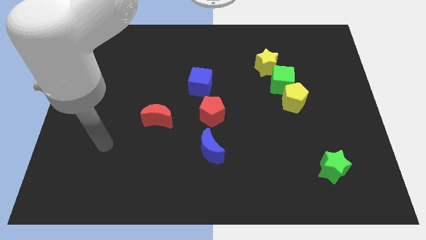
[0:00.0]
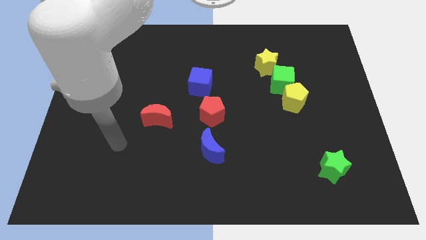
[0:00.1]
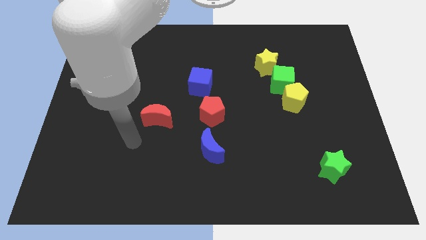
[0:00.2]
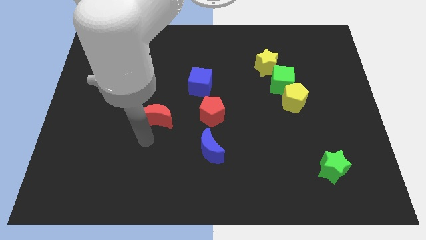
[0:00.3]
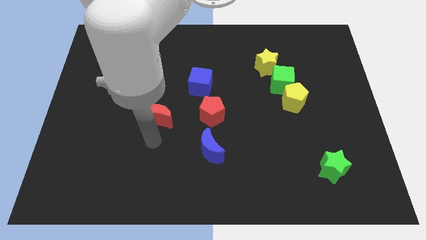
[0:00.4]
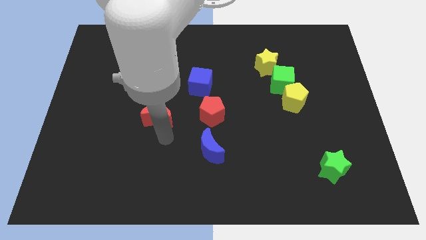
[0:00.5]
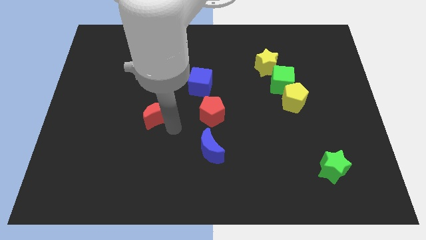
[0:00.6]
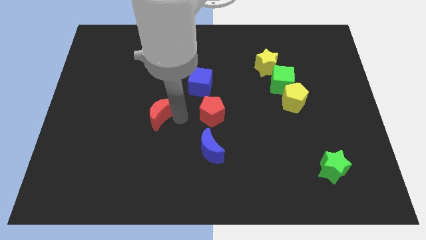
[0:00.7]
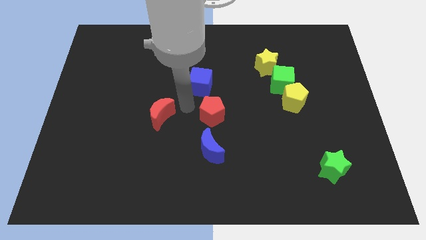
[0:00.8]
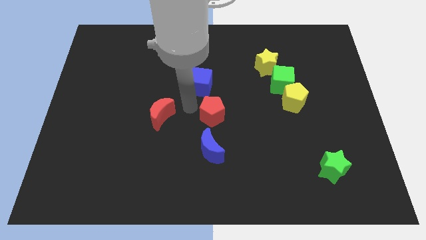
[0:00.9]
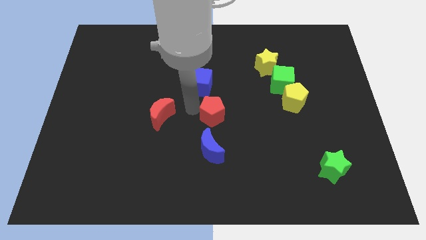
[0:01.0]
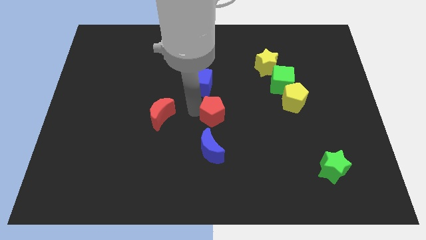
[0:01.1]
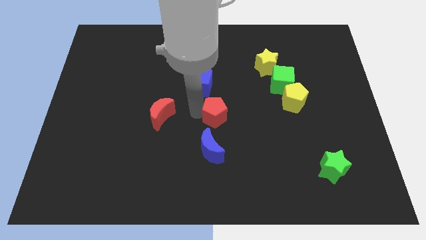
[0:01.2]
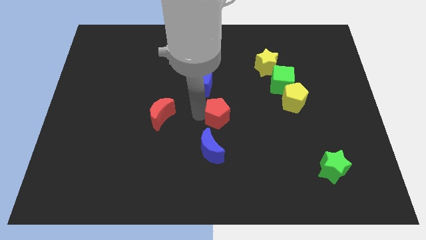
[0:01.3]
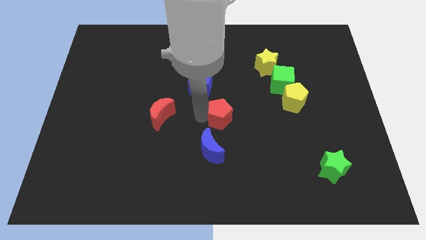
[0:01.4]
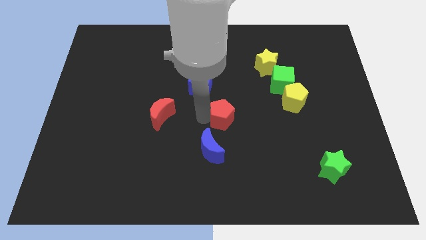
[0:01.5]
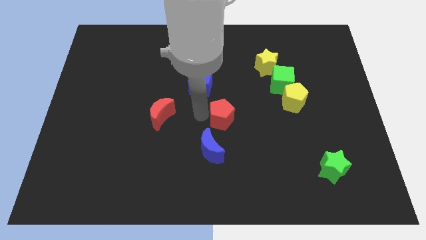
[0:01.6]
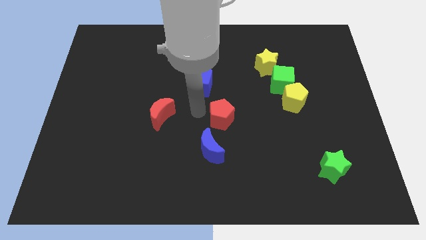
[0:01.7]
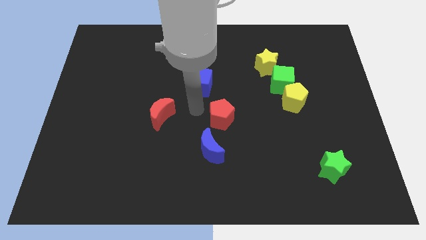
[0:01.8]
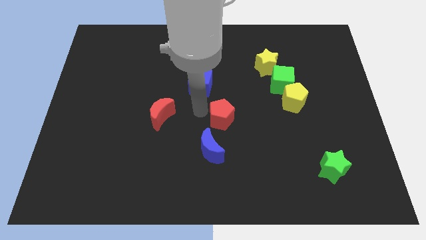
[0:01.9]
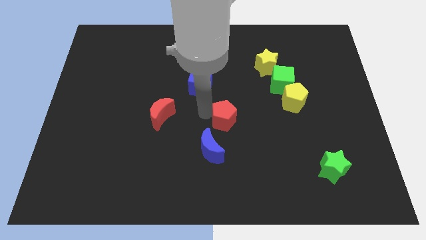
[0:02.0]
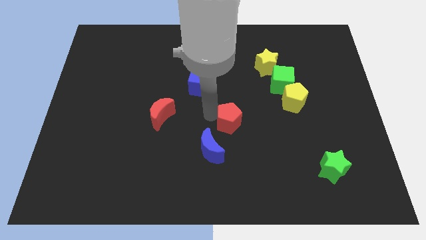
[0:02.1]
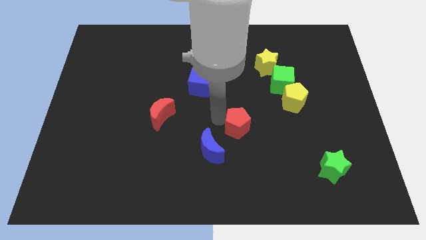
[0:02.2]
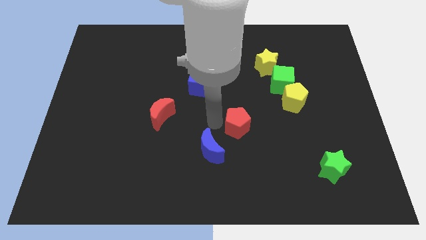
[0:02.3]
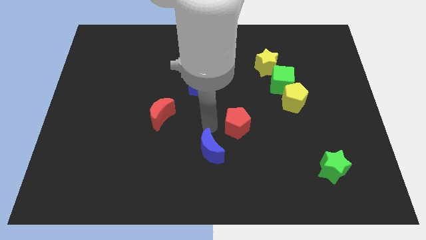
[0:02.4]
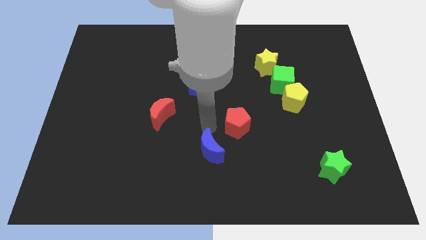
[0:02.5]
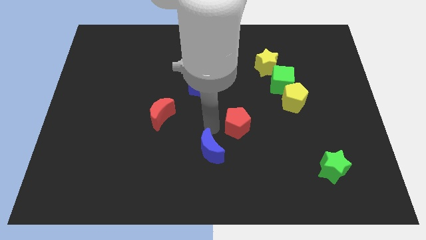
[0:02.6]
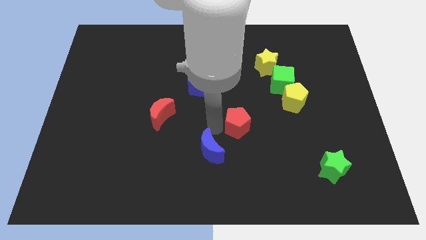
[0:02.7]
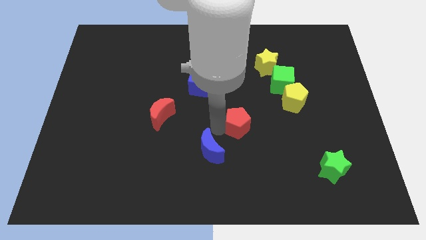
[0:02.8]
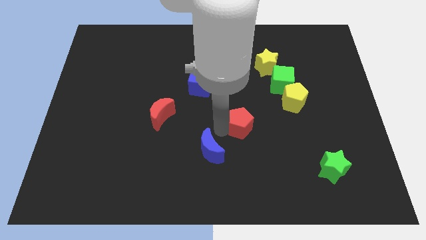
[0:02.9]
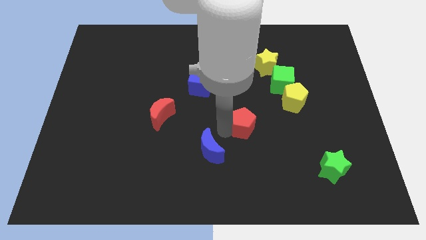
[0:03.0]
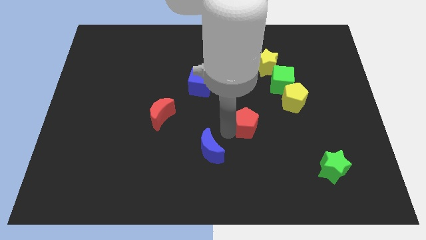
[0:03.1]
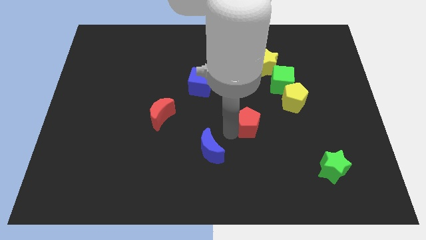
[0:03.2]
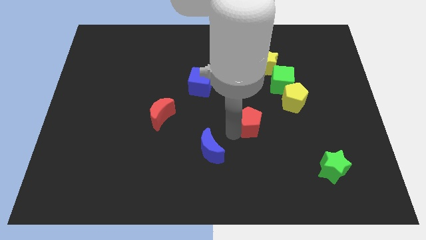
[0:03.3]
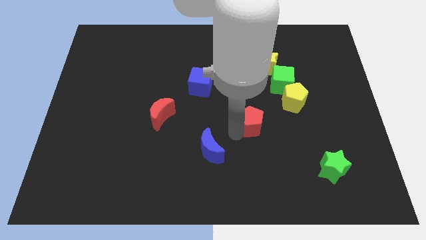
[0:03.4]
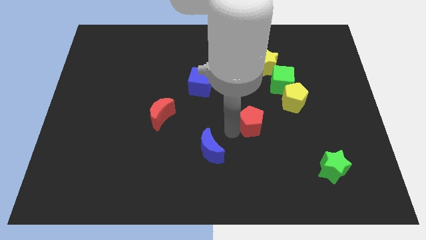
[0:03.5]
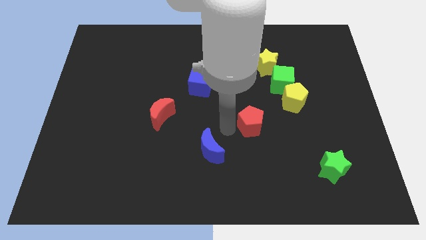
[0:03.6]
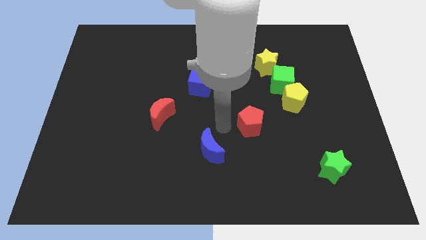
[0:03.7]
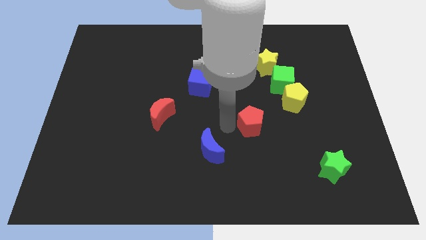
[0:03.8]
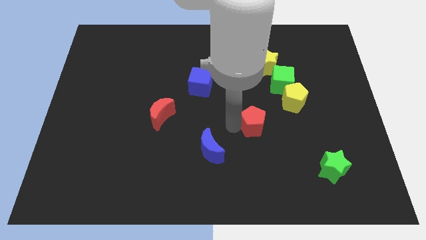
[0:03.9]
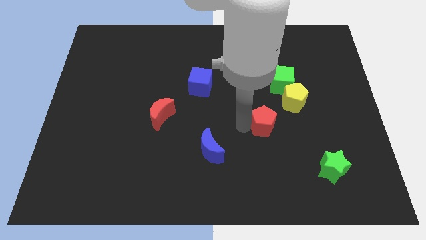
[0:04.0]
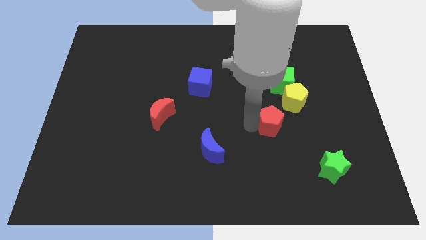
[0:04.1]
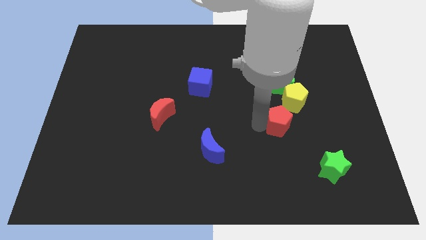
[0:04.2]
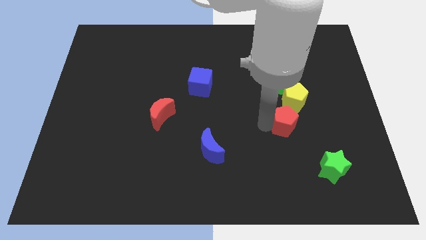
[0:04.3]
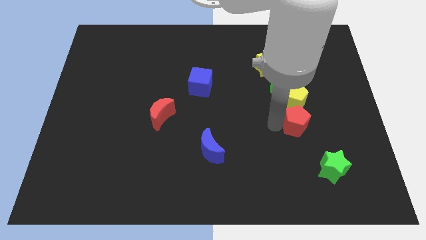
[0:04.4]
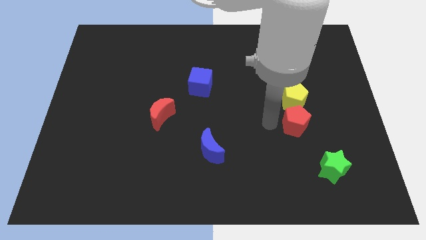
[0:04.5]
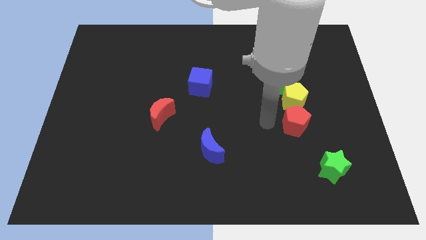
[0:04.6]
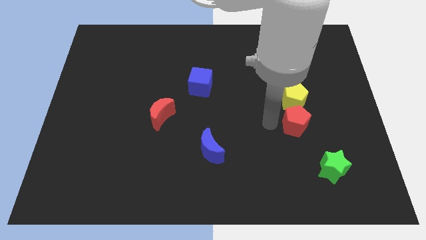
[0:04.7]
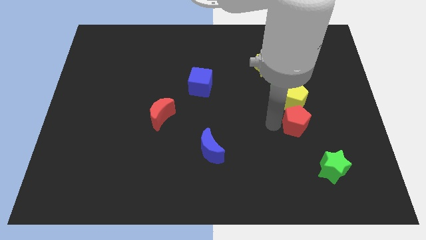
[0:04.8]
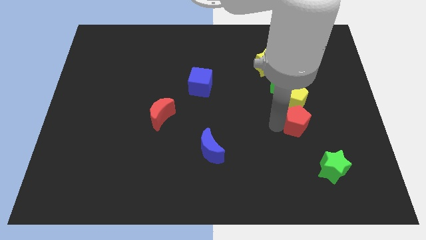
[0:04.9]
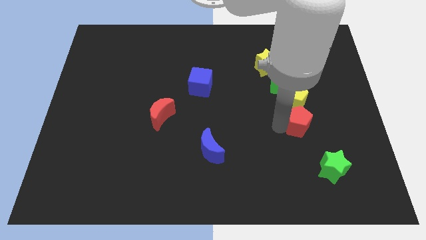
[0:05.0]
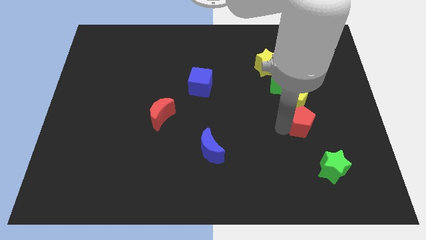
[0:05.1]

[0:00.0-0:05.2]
put the red pentagon above the green star

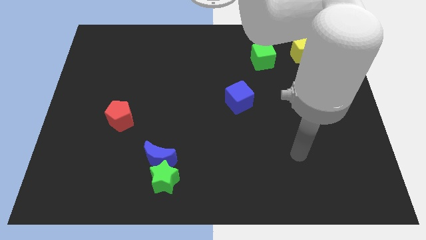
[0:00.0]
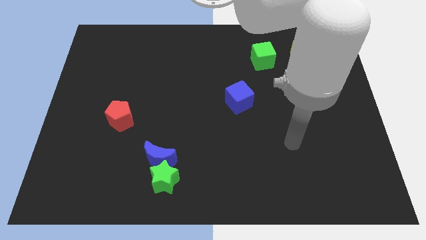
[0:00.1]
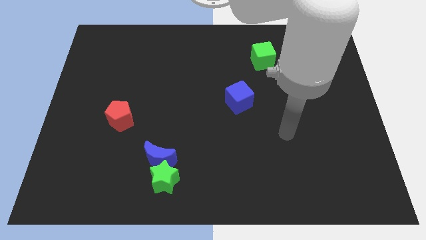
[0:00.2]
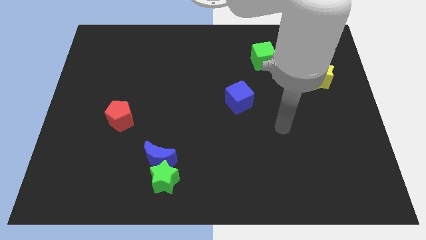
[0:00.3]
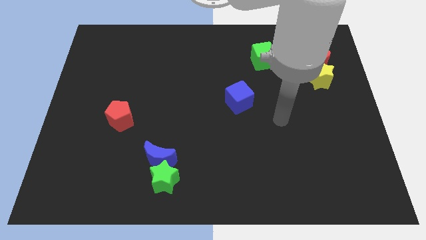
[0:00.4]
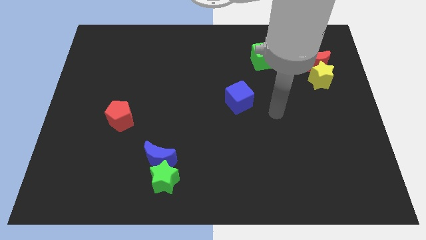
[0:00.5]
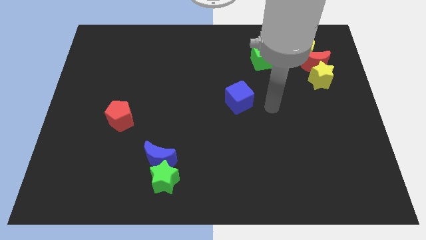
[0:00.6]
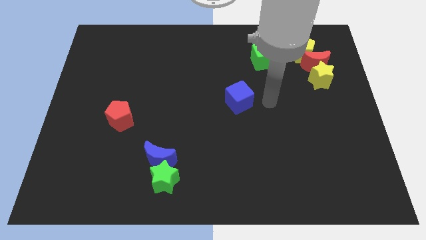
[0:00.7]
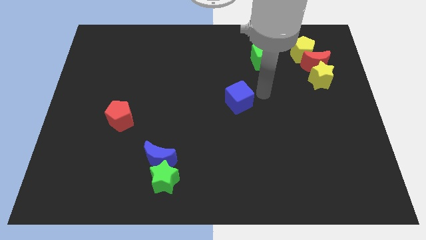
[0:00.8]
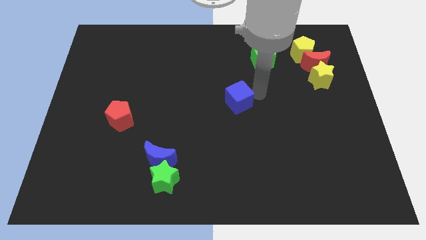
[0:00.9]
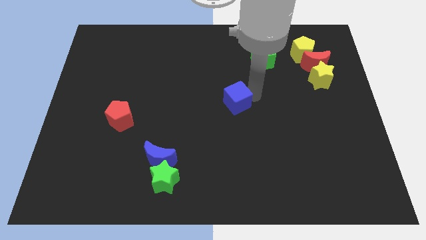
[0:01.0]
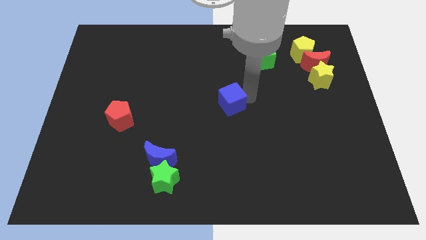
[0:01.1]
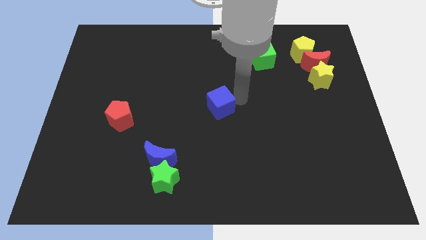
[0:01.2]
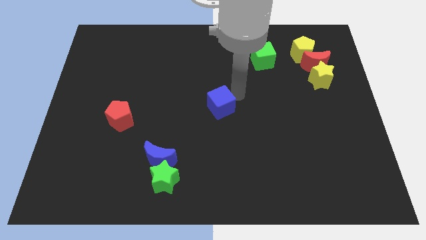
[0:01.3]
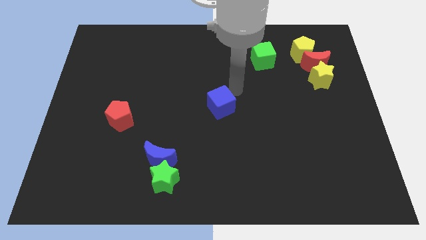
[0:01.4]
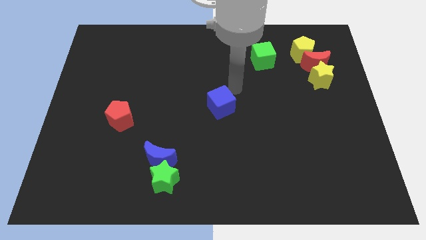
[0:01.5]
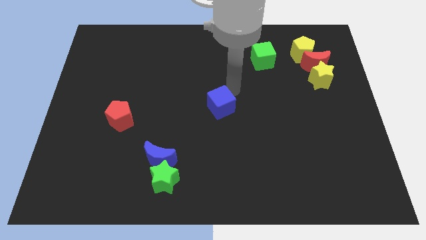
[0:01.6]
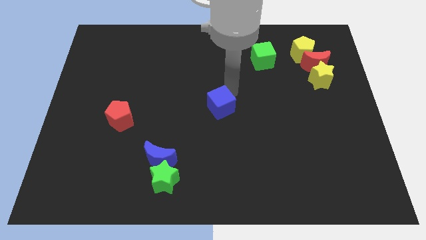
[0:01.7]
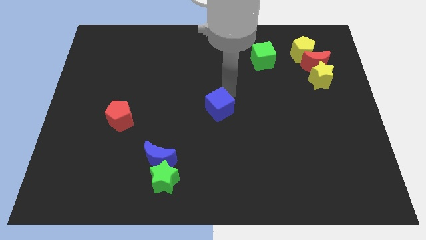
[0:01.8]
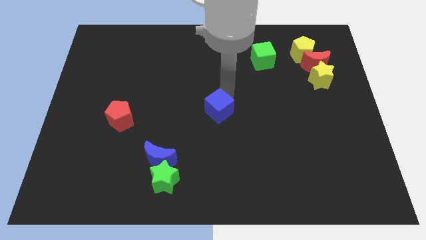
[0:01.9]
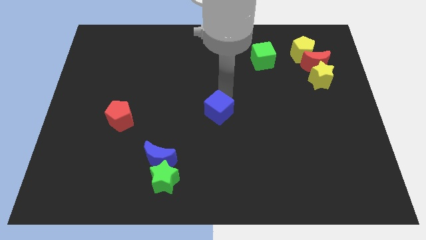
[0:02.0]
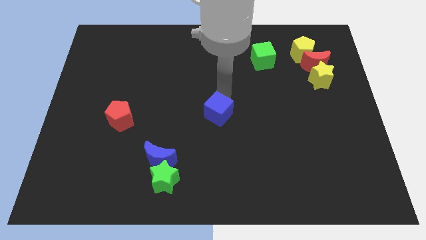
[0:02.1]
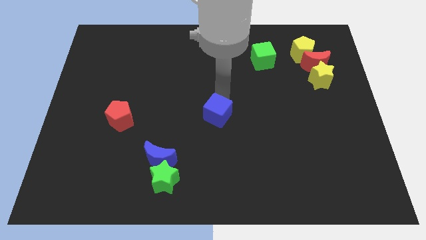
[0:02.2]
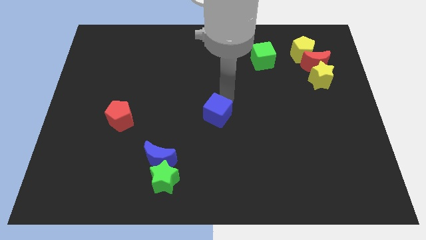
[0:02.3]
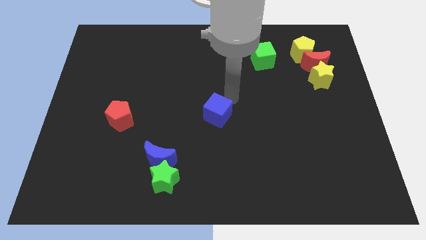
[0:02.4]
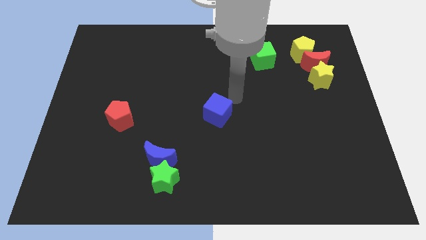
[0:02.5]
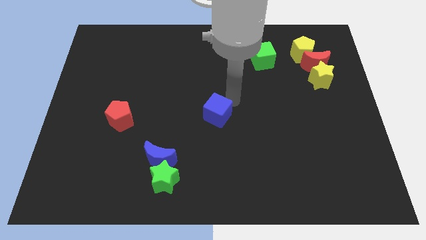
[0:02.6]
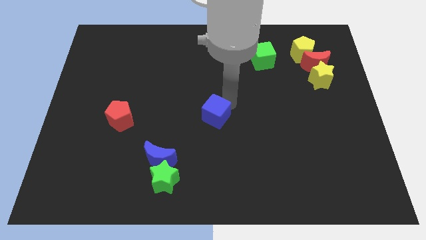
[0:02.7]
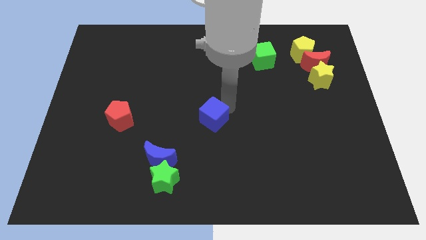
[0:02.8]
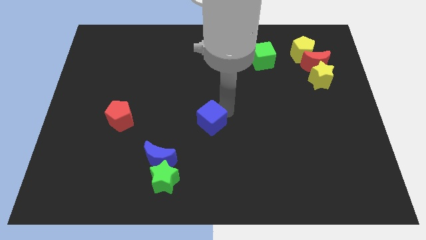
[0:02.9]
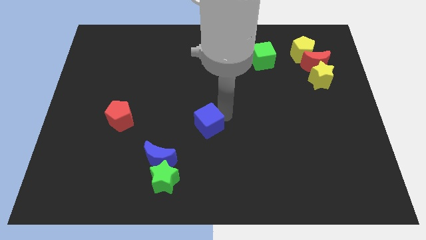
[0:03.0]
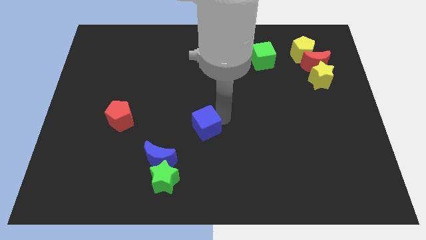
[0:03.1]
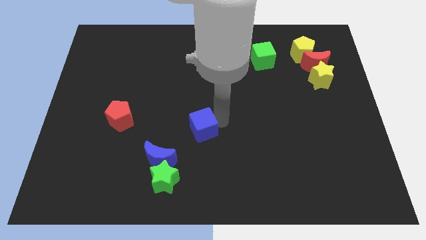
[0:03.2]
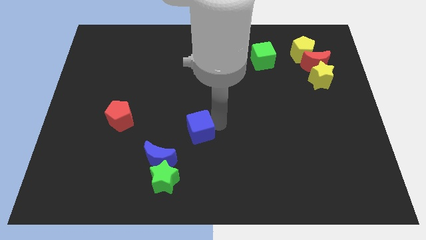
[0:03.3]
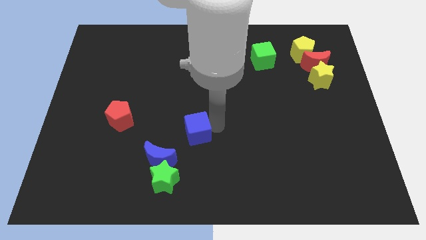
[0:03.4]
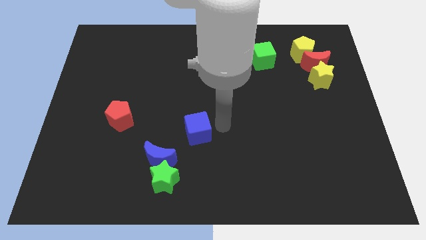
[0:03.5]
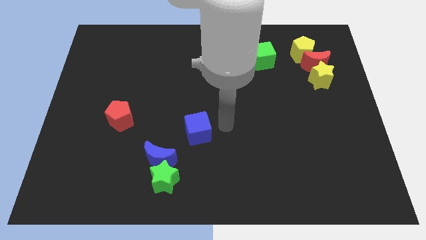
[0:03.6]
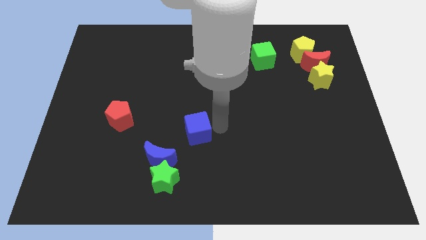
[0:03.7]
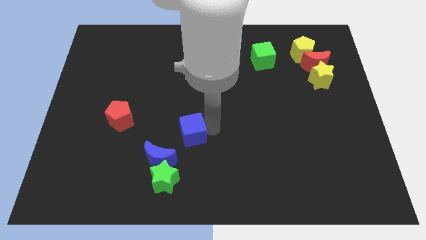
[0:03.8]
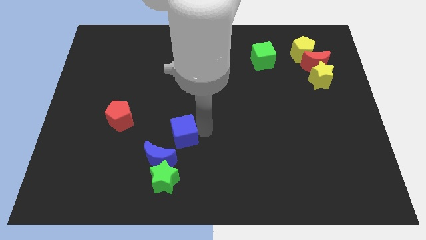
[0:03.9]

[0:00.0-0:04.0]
slide the blue cube to the top of the green star
